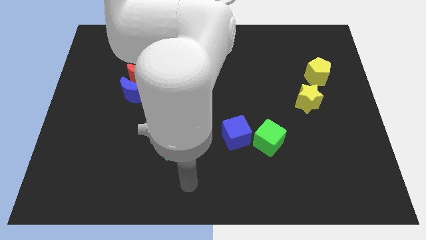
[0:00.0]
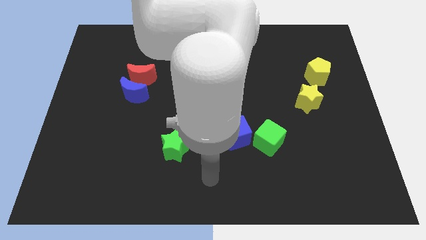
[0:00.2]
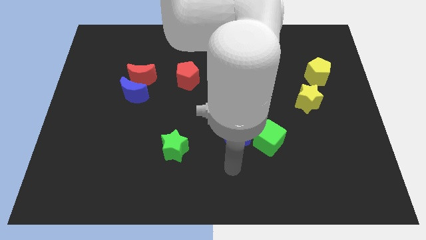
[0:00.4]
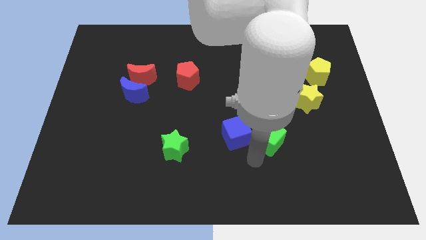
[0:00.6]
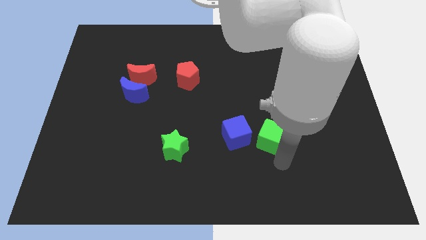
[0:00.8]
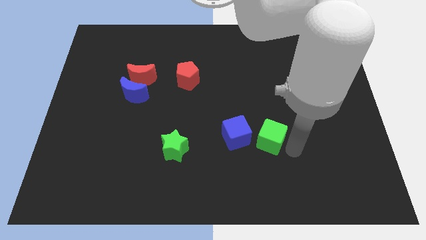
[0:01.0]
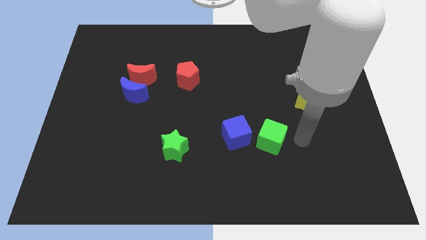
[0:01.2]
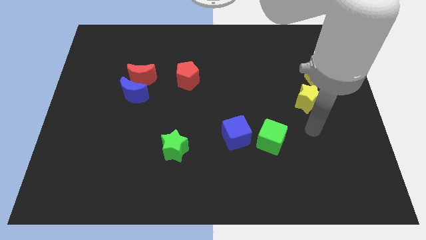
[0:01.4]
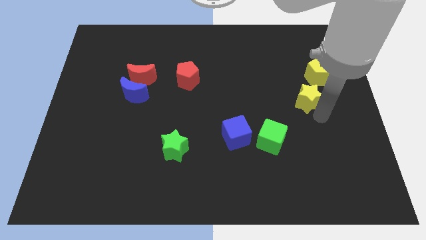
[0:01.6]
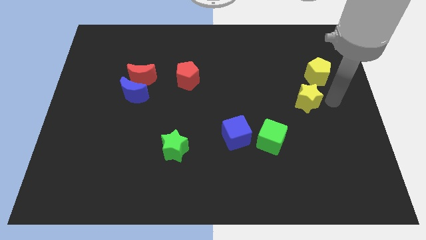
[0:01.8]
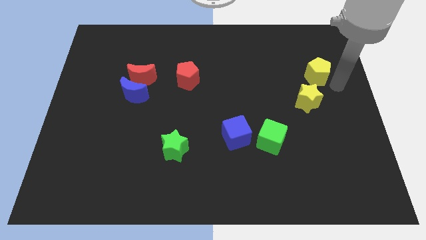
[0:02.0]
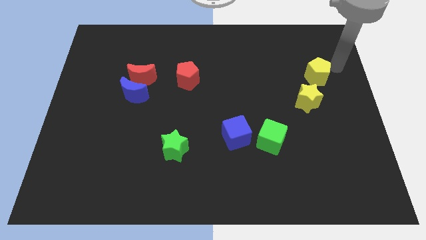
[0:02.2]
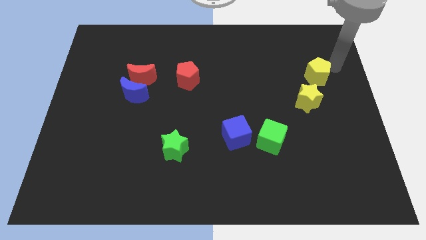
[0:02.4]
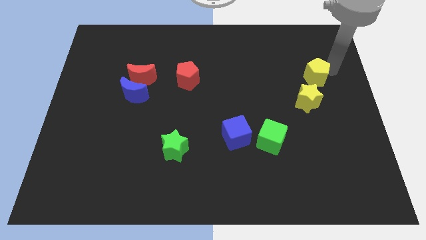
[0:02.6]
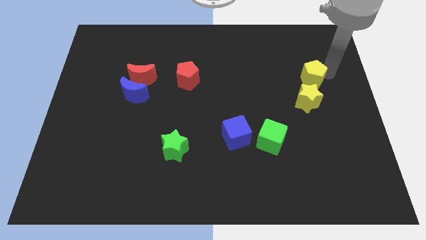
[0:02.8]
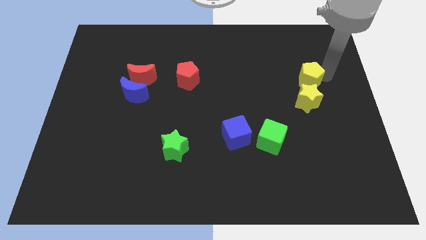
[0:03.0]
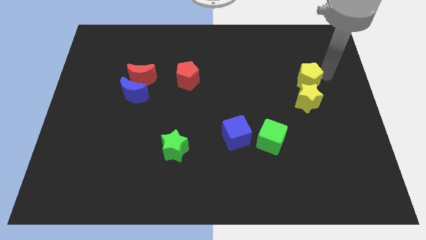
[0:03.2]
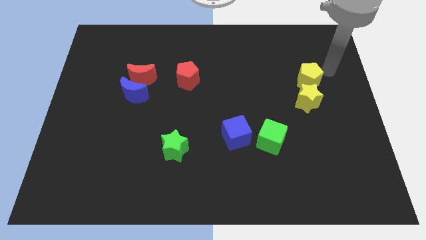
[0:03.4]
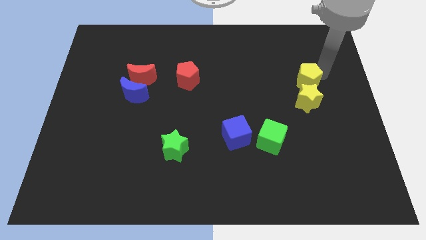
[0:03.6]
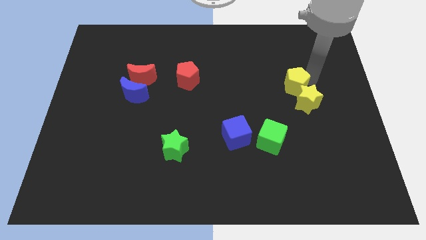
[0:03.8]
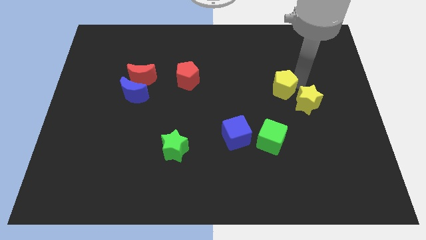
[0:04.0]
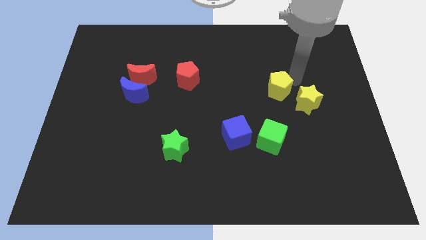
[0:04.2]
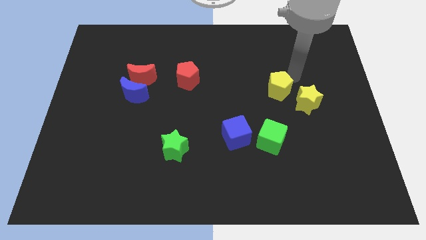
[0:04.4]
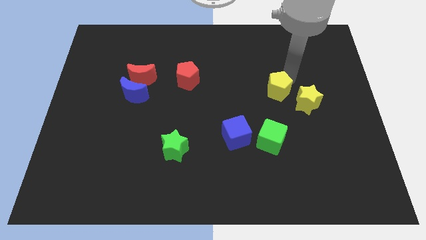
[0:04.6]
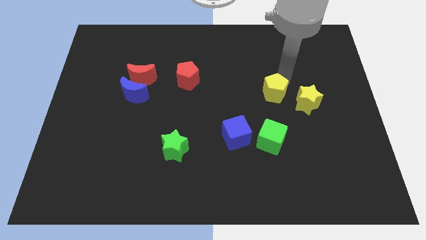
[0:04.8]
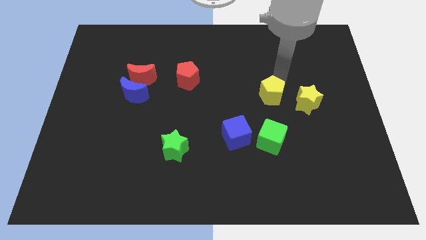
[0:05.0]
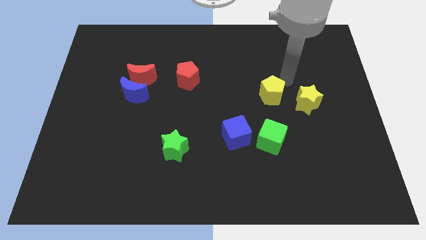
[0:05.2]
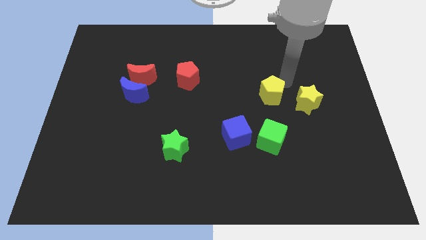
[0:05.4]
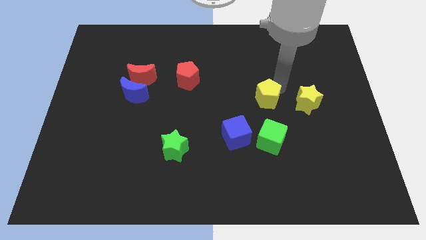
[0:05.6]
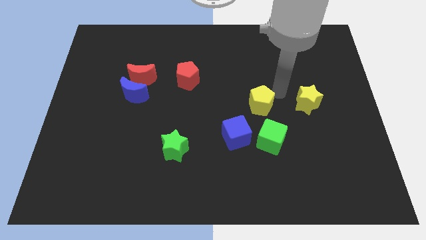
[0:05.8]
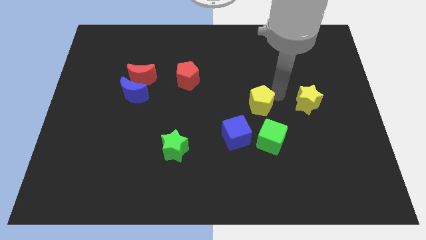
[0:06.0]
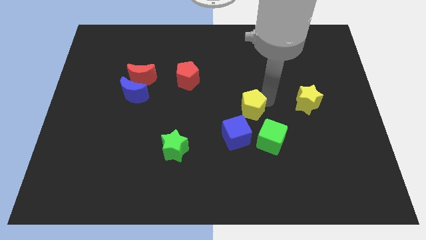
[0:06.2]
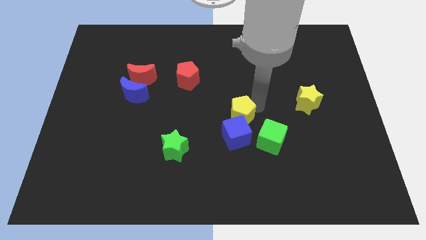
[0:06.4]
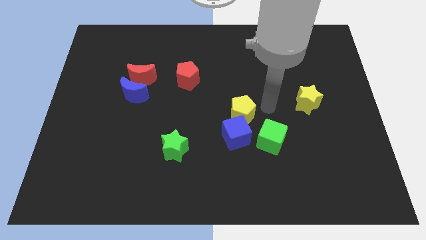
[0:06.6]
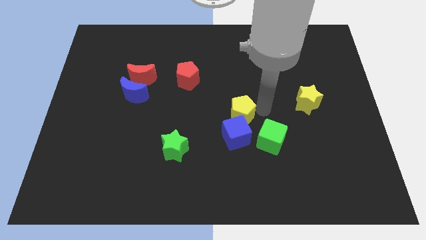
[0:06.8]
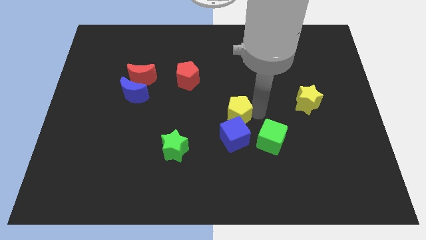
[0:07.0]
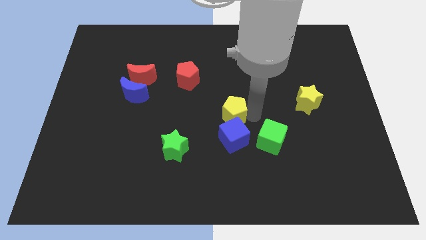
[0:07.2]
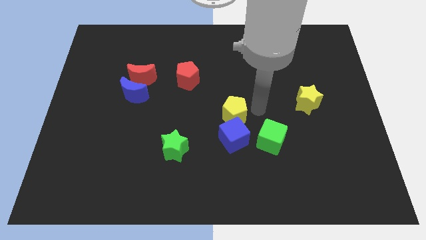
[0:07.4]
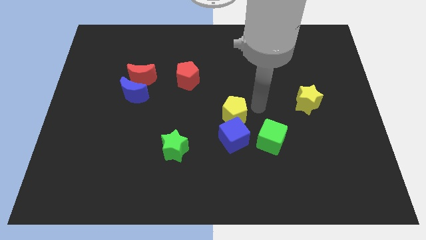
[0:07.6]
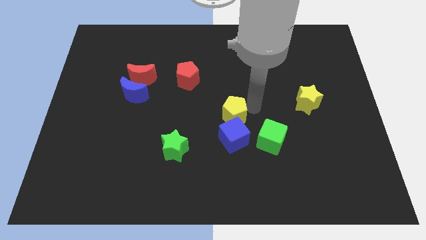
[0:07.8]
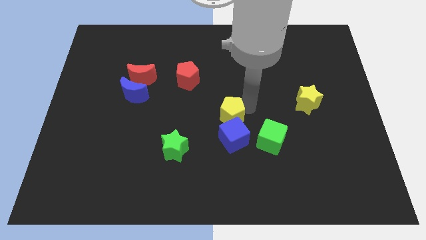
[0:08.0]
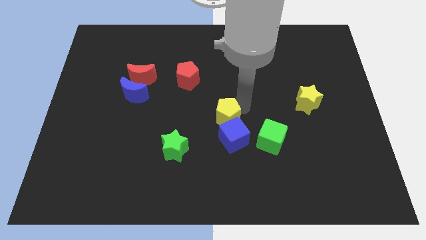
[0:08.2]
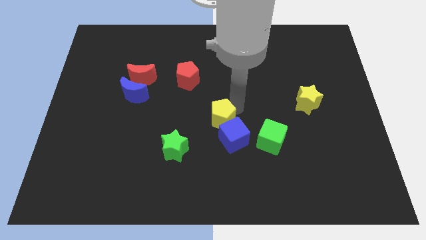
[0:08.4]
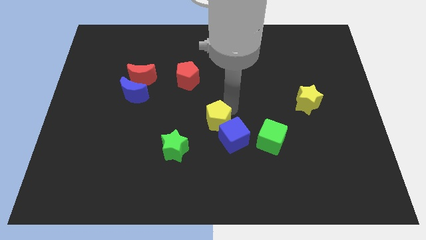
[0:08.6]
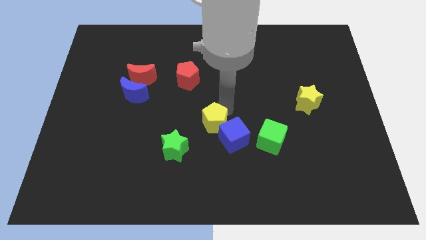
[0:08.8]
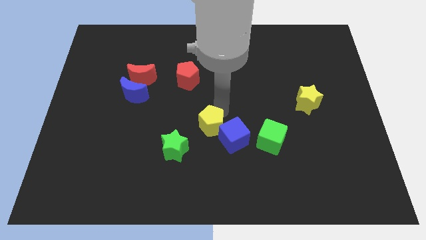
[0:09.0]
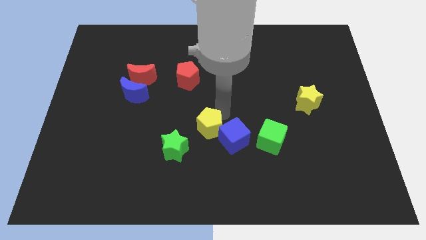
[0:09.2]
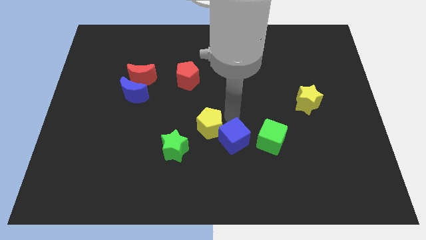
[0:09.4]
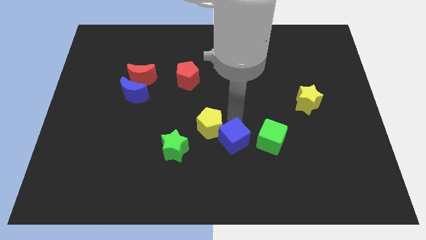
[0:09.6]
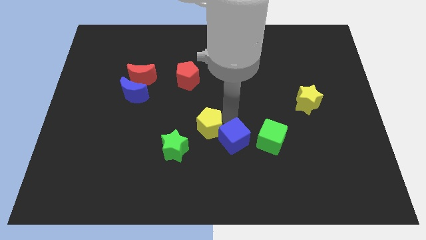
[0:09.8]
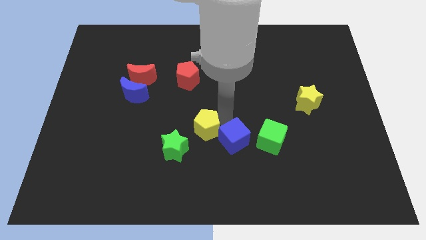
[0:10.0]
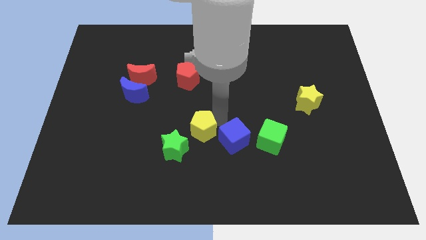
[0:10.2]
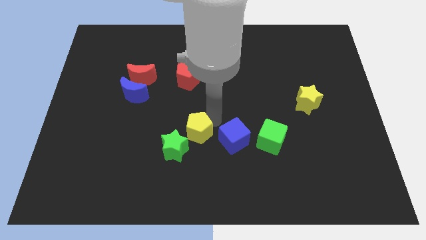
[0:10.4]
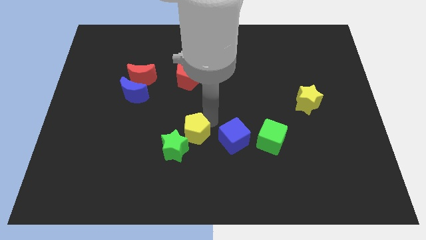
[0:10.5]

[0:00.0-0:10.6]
push the yellow pentagon towards the green star

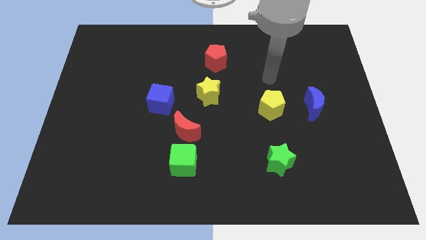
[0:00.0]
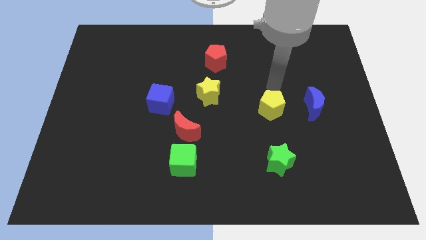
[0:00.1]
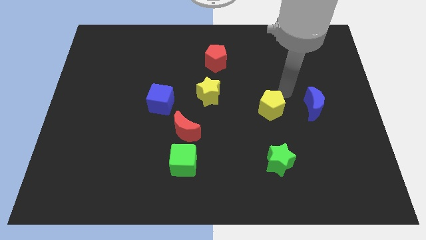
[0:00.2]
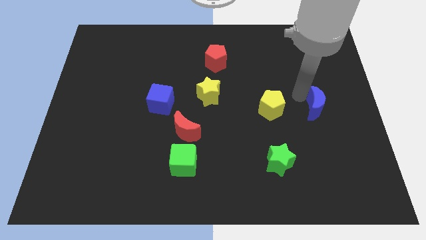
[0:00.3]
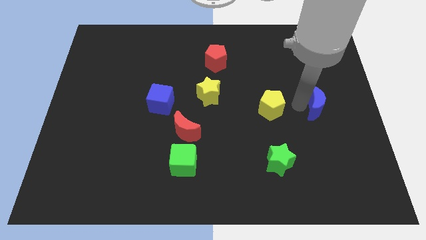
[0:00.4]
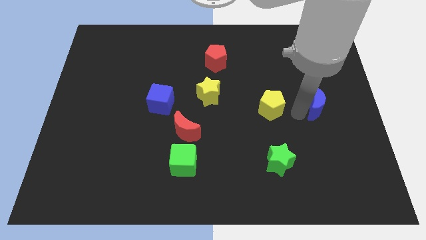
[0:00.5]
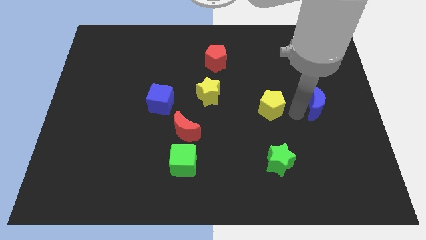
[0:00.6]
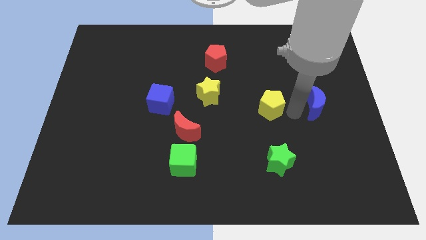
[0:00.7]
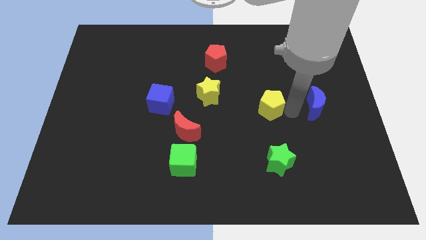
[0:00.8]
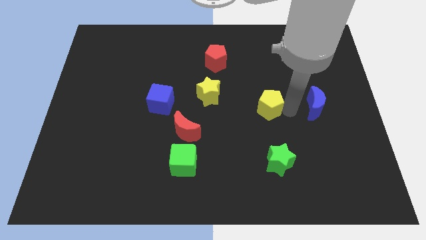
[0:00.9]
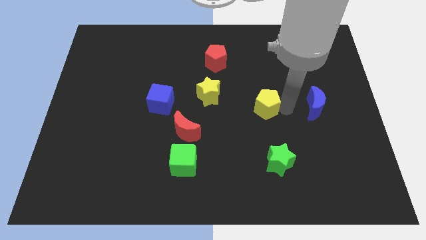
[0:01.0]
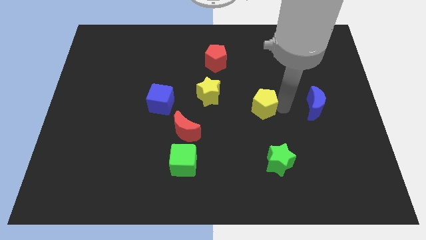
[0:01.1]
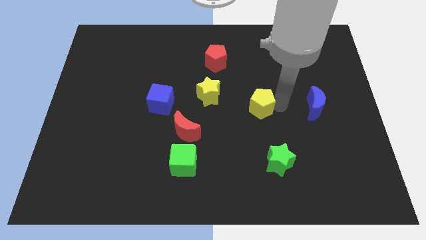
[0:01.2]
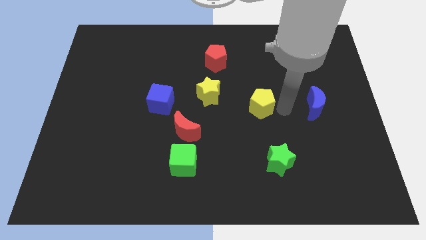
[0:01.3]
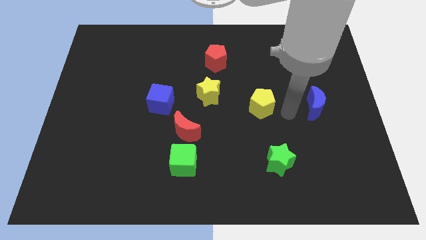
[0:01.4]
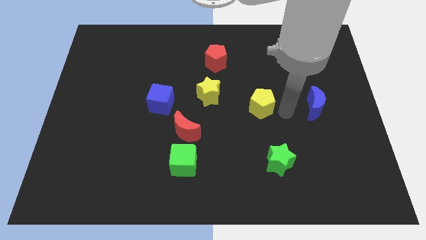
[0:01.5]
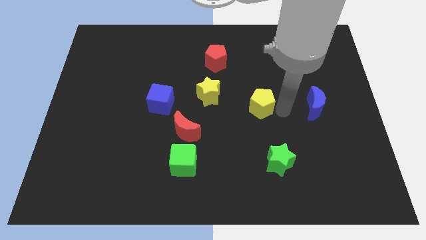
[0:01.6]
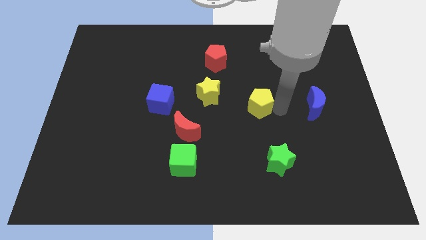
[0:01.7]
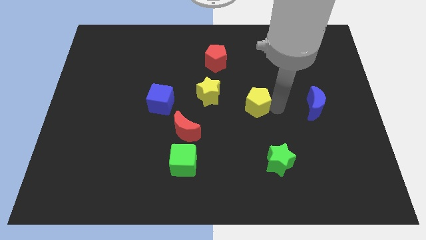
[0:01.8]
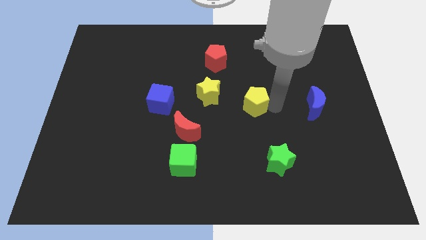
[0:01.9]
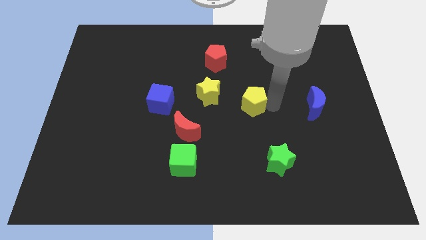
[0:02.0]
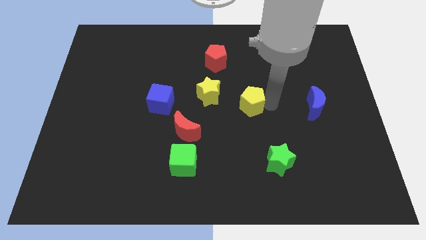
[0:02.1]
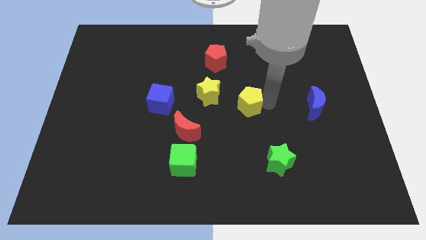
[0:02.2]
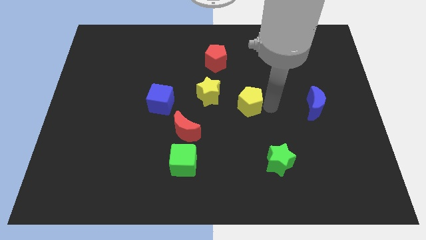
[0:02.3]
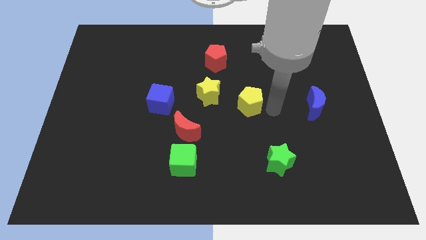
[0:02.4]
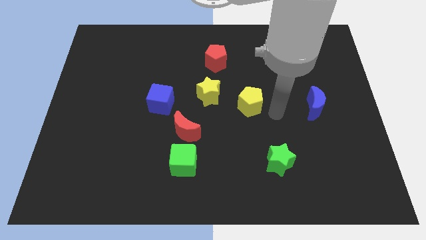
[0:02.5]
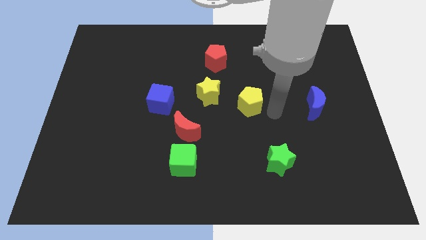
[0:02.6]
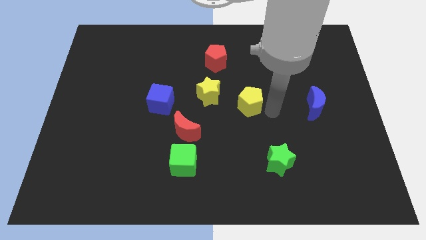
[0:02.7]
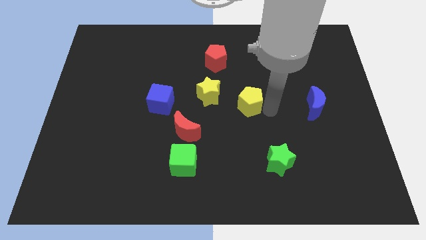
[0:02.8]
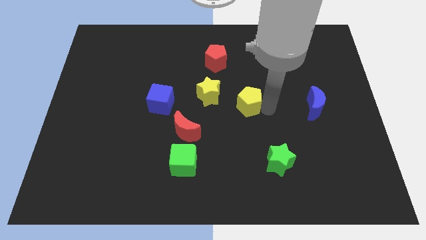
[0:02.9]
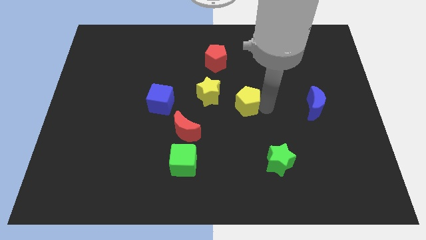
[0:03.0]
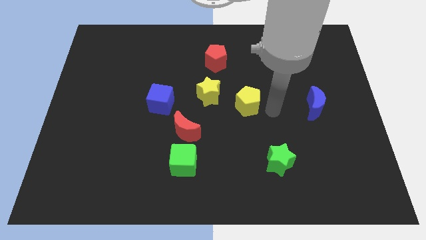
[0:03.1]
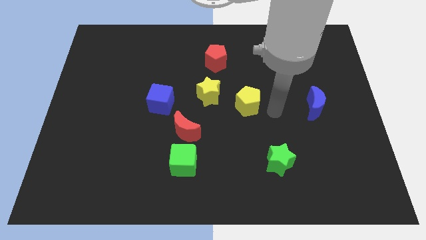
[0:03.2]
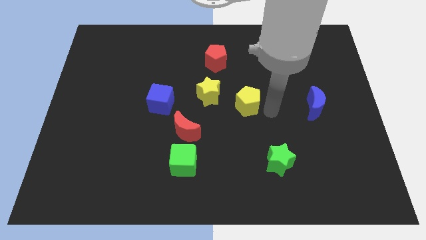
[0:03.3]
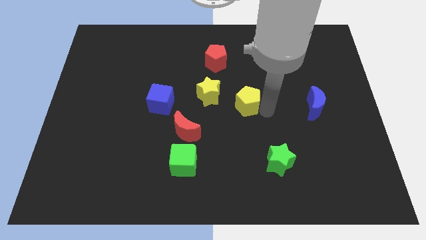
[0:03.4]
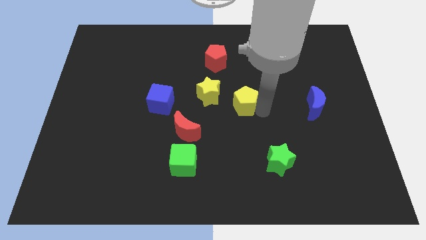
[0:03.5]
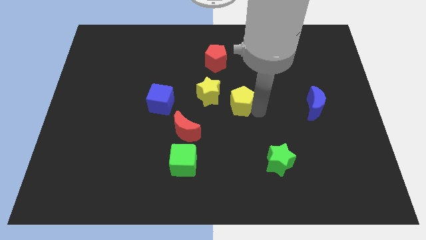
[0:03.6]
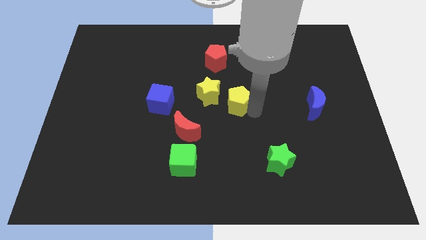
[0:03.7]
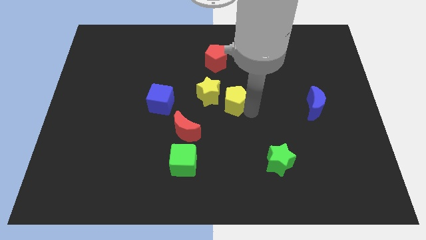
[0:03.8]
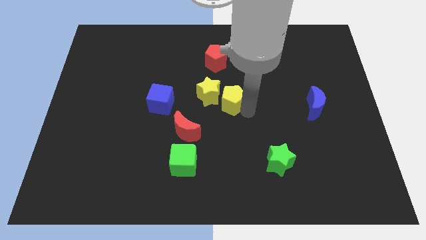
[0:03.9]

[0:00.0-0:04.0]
move the yellow pentagon next to the yellow star
